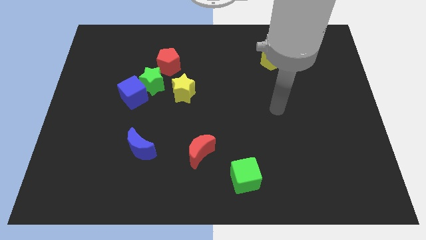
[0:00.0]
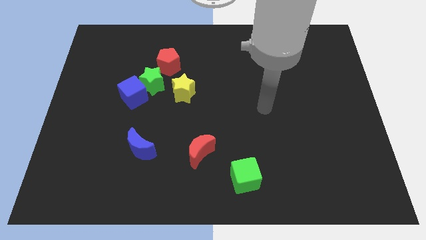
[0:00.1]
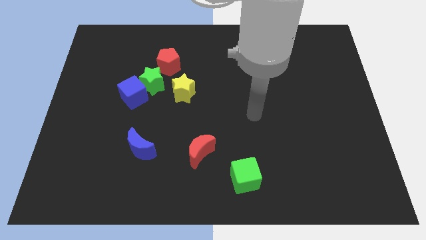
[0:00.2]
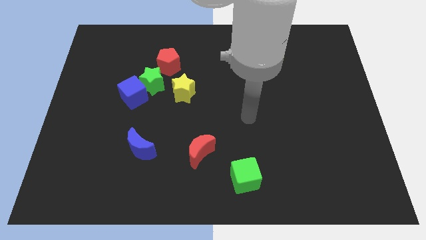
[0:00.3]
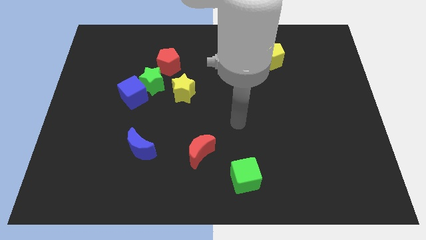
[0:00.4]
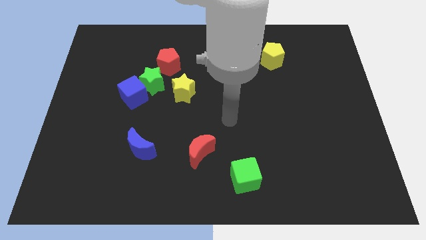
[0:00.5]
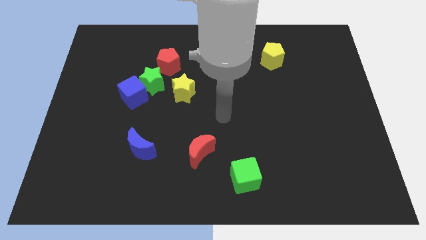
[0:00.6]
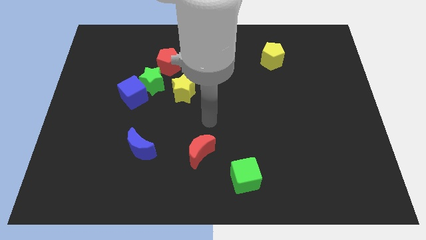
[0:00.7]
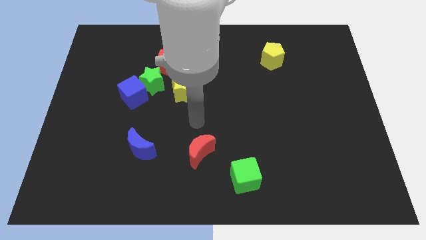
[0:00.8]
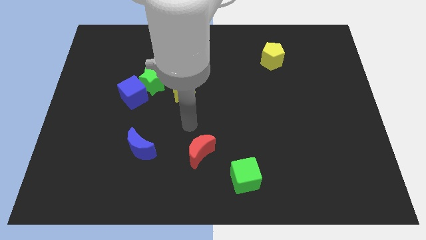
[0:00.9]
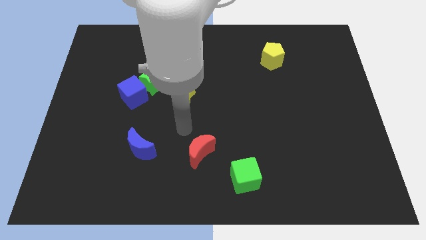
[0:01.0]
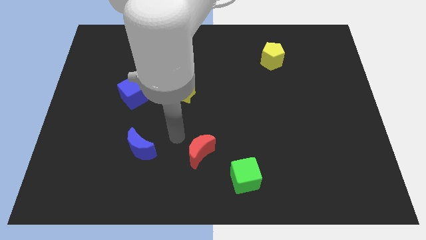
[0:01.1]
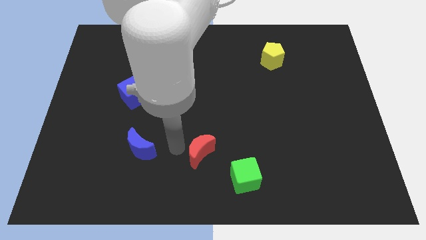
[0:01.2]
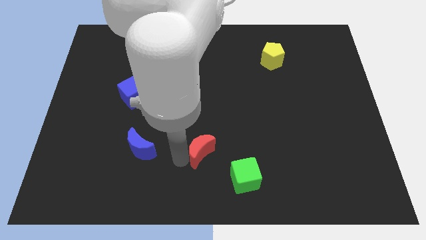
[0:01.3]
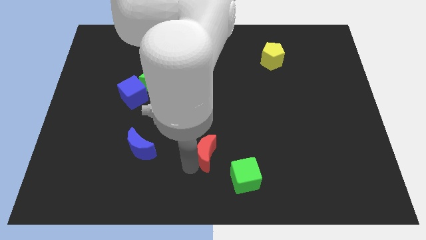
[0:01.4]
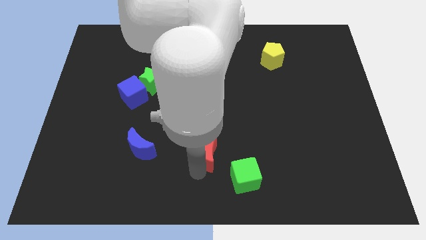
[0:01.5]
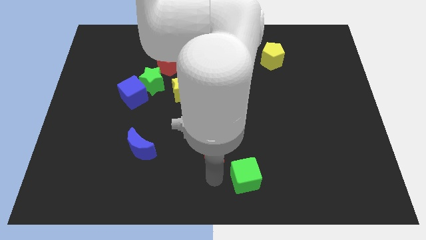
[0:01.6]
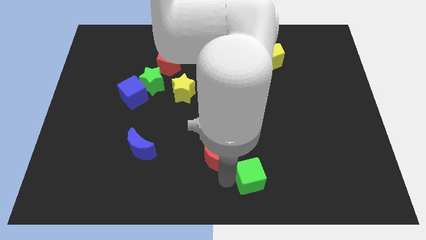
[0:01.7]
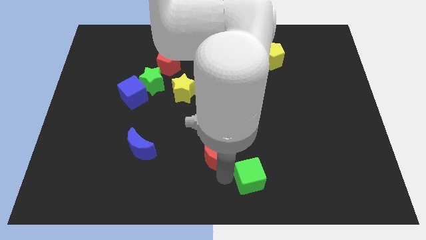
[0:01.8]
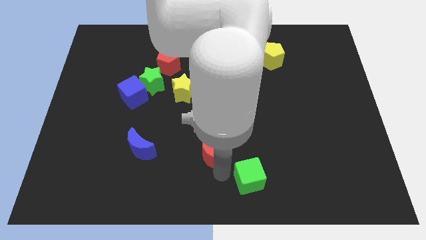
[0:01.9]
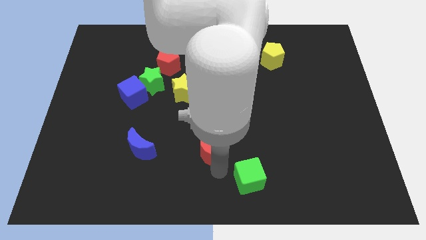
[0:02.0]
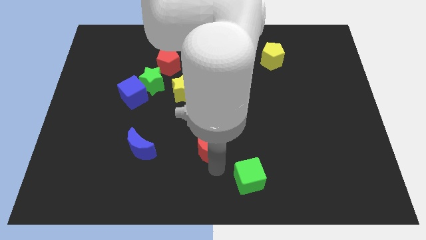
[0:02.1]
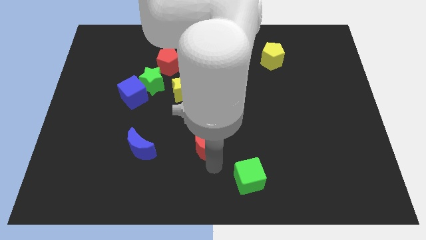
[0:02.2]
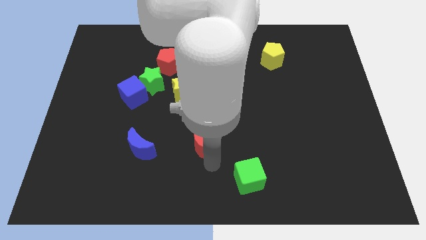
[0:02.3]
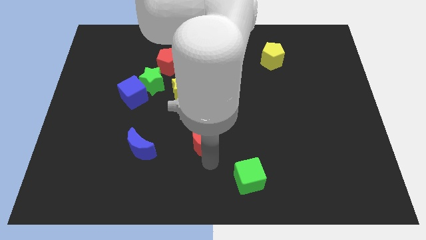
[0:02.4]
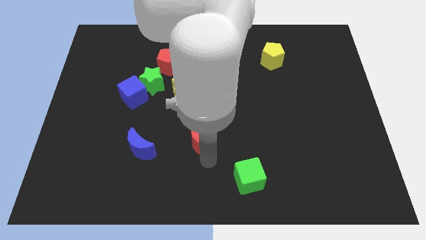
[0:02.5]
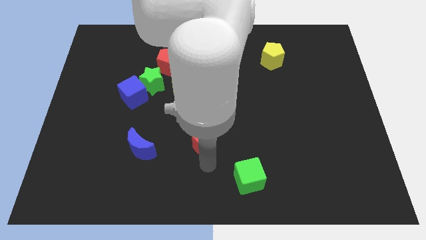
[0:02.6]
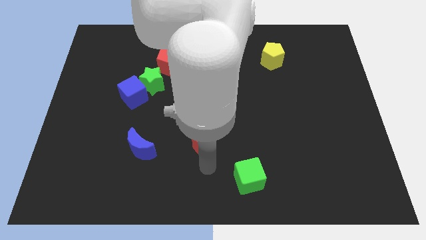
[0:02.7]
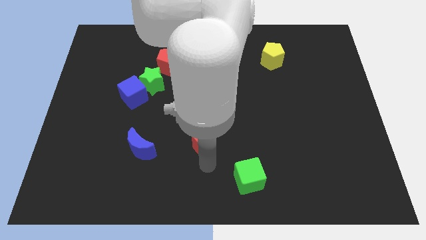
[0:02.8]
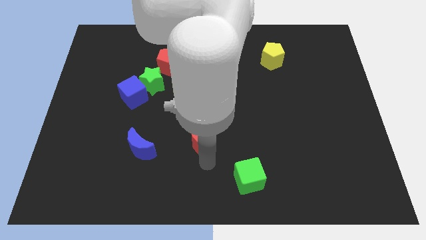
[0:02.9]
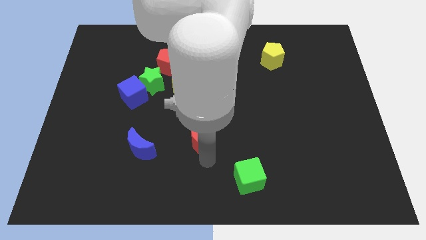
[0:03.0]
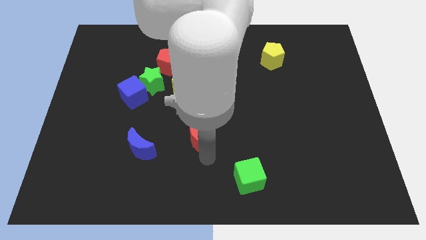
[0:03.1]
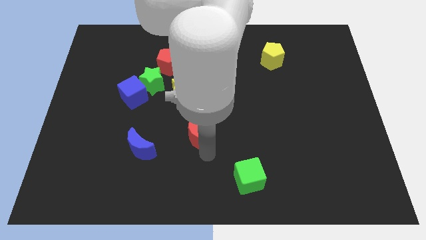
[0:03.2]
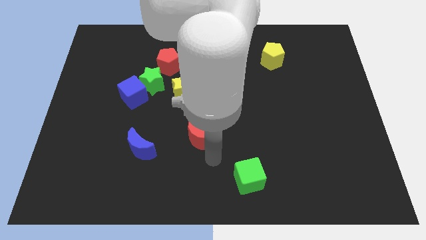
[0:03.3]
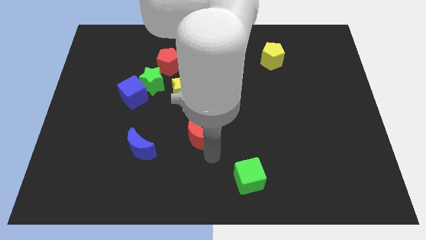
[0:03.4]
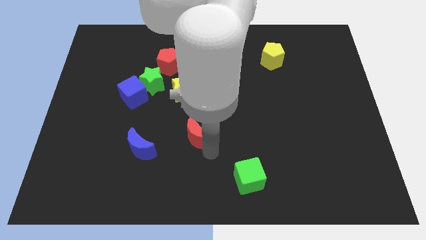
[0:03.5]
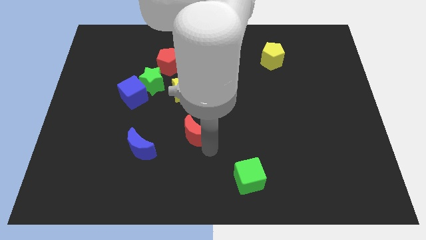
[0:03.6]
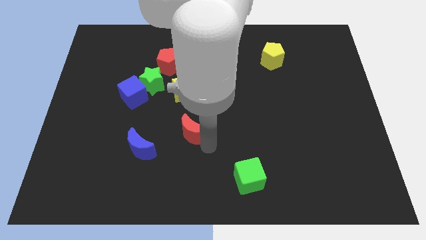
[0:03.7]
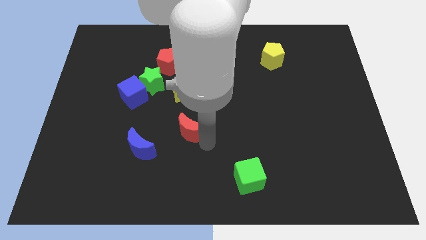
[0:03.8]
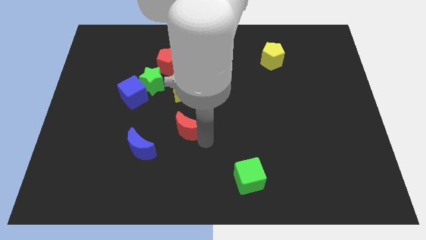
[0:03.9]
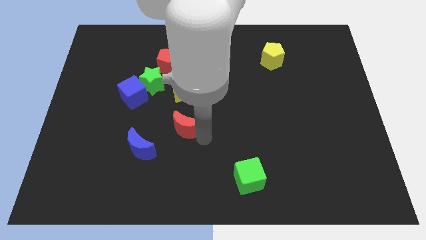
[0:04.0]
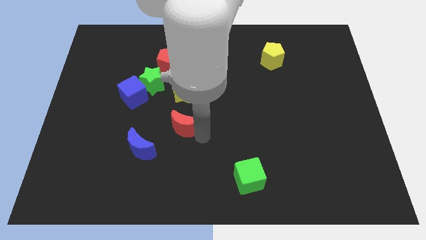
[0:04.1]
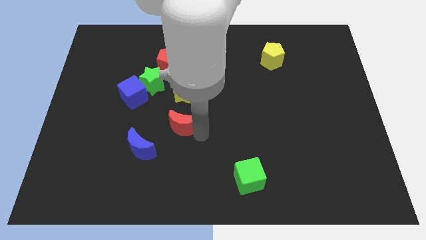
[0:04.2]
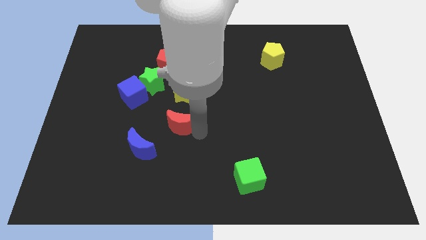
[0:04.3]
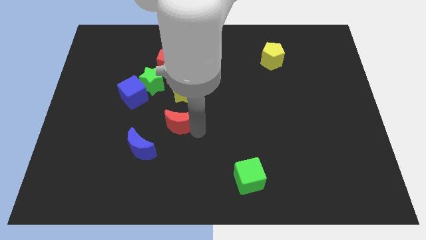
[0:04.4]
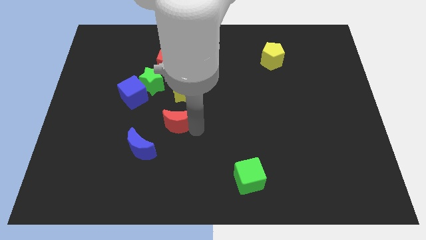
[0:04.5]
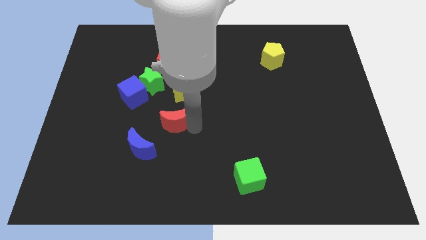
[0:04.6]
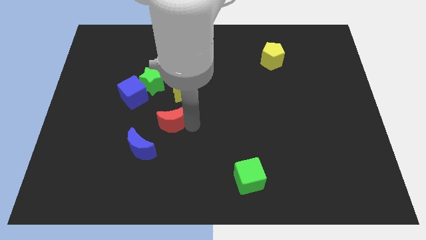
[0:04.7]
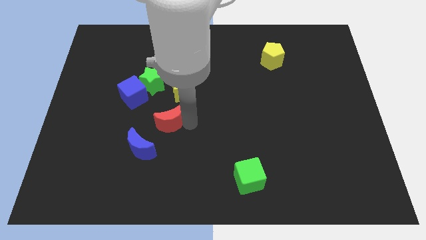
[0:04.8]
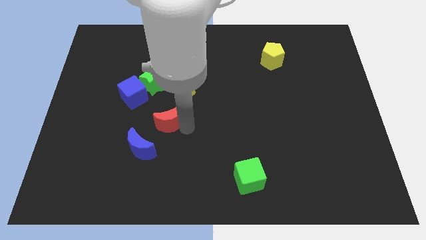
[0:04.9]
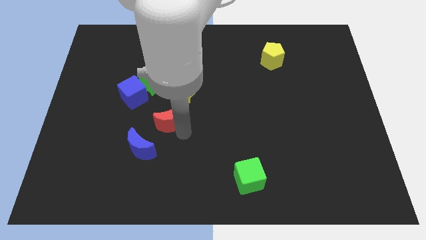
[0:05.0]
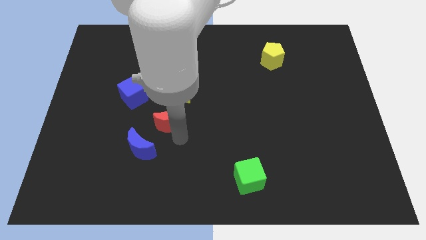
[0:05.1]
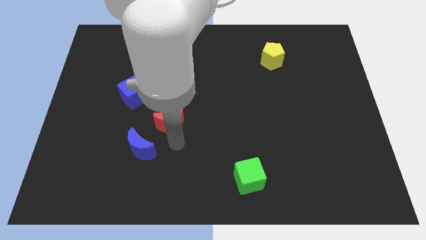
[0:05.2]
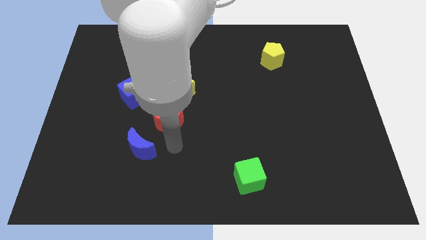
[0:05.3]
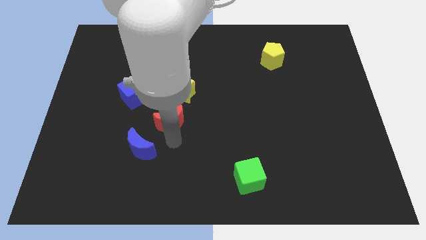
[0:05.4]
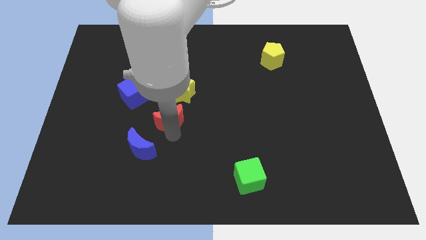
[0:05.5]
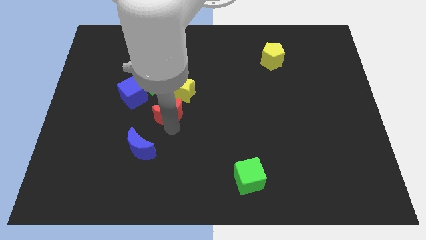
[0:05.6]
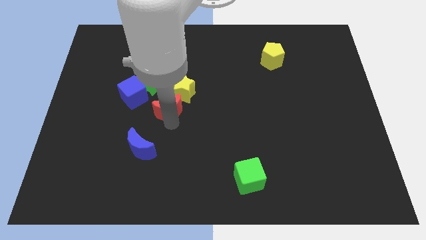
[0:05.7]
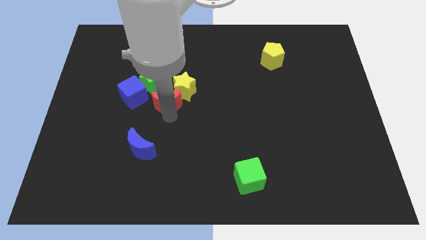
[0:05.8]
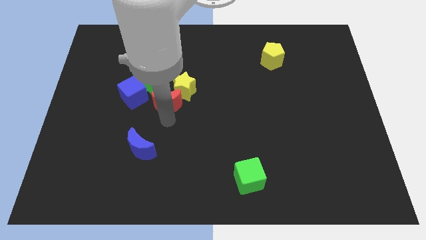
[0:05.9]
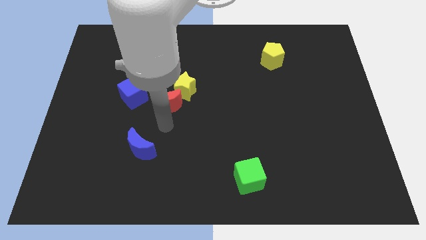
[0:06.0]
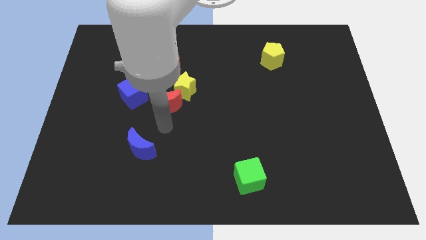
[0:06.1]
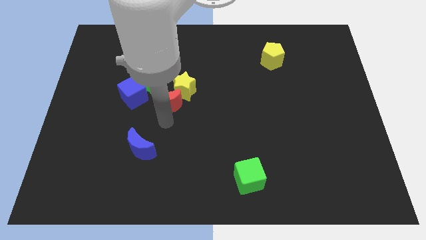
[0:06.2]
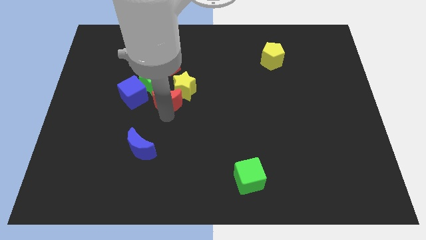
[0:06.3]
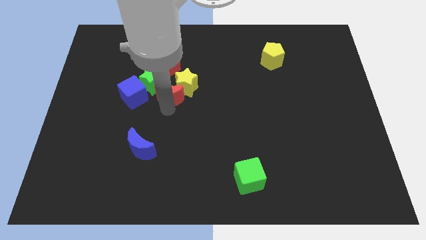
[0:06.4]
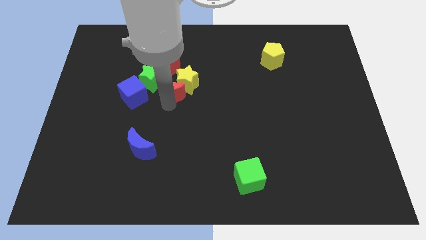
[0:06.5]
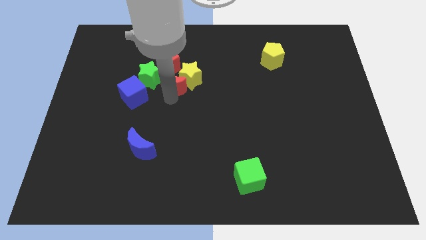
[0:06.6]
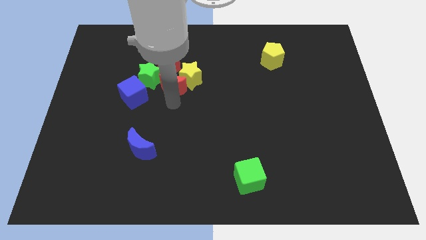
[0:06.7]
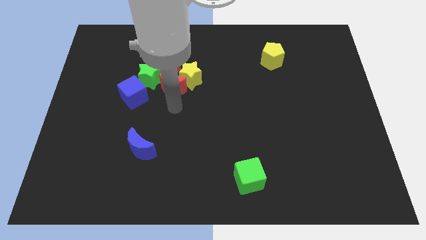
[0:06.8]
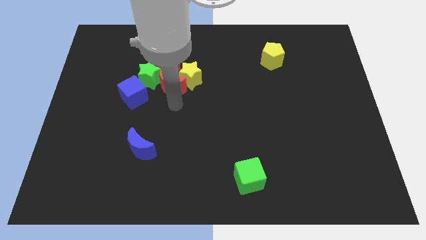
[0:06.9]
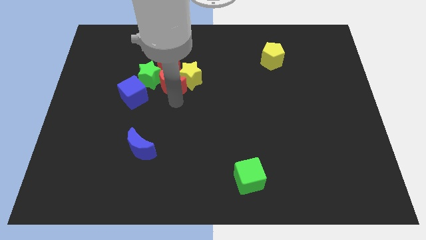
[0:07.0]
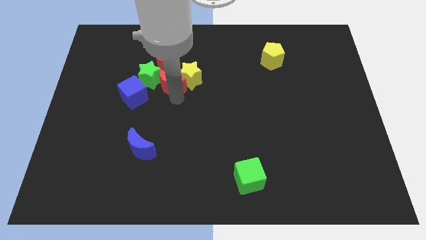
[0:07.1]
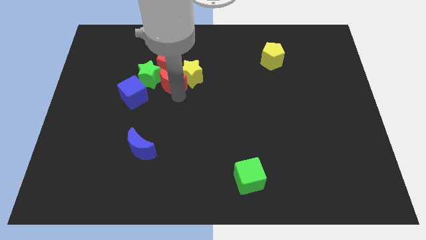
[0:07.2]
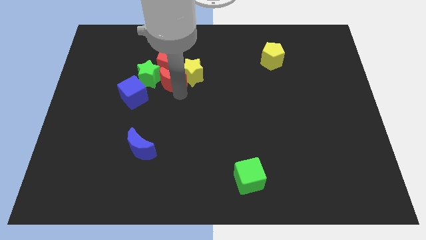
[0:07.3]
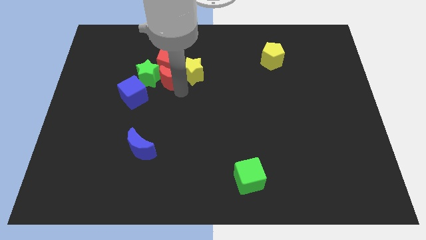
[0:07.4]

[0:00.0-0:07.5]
push the red moon towards the red pentagon
